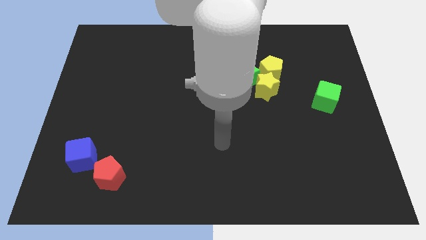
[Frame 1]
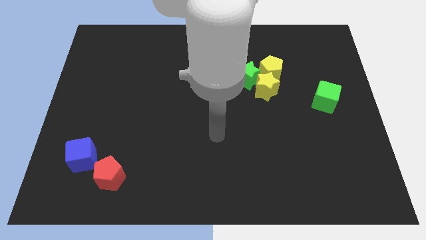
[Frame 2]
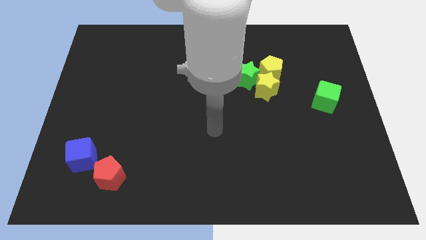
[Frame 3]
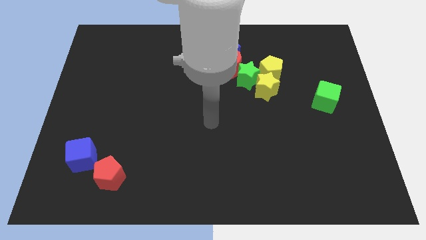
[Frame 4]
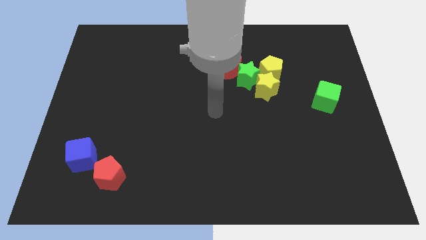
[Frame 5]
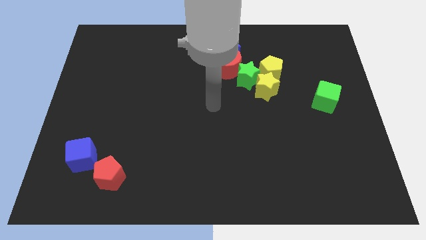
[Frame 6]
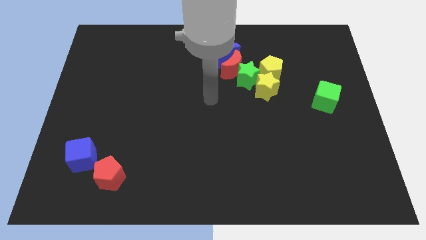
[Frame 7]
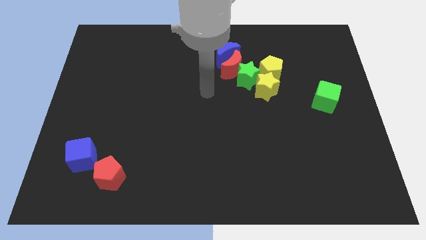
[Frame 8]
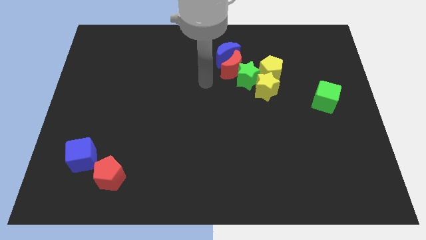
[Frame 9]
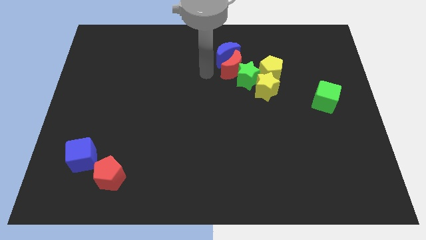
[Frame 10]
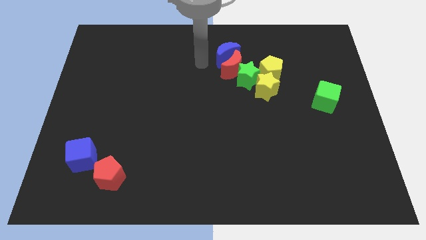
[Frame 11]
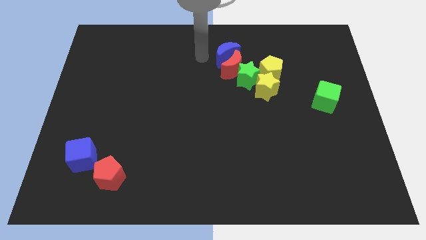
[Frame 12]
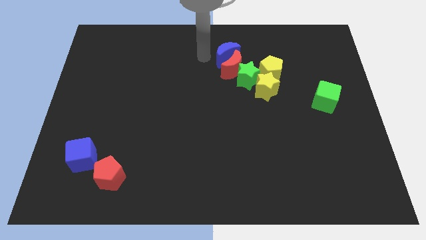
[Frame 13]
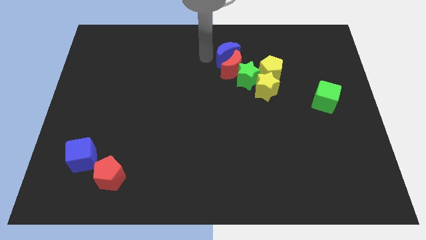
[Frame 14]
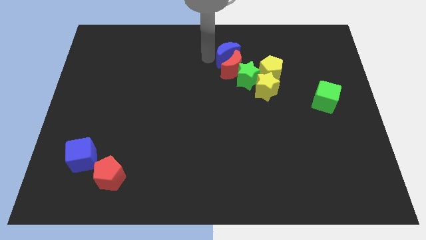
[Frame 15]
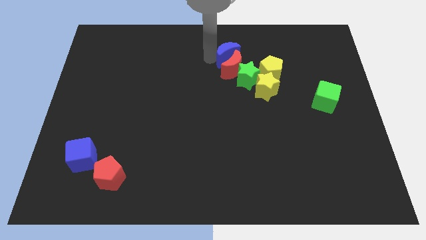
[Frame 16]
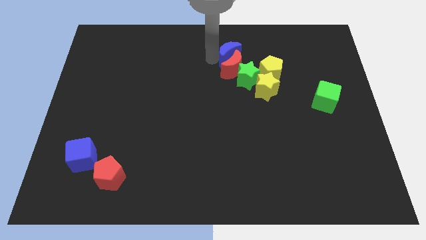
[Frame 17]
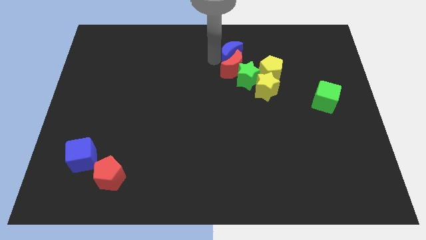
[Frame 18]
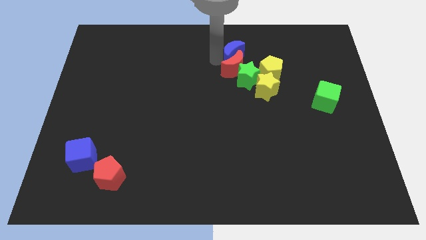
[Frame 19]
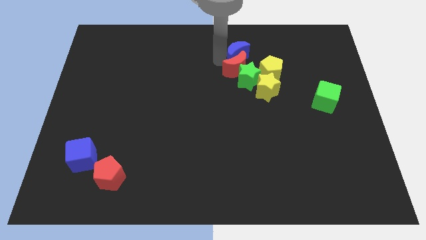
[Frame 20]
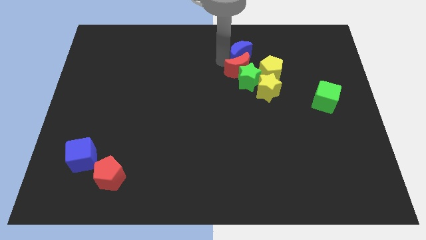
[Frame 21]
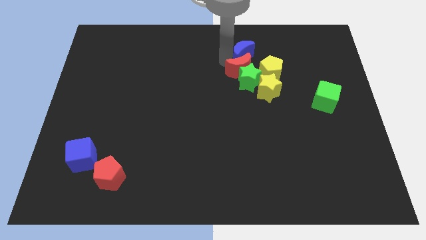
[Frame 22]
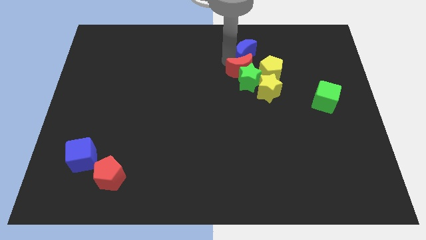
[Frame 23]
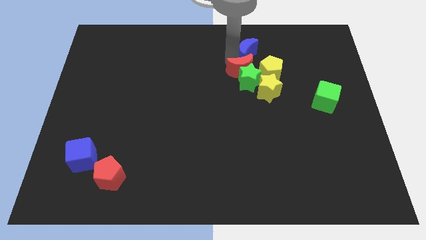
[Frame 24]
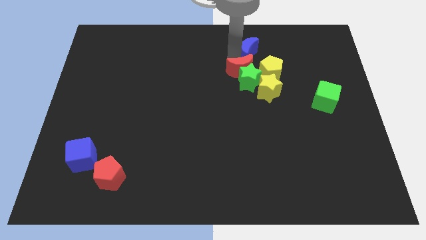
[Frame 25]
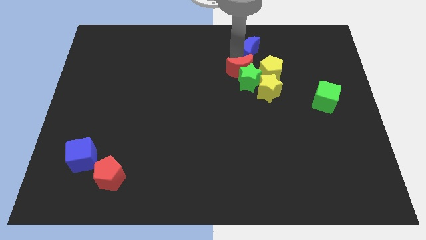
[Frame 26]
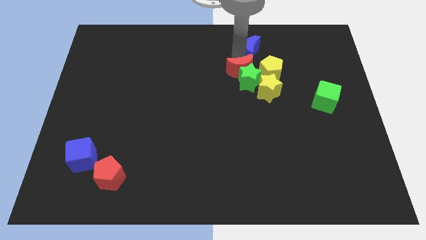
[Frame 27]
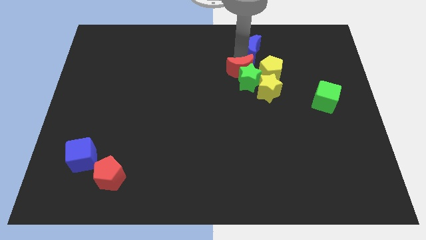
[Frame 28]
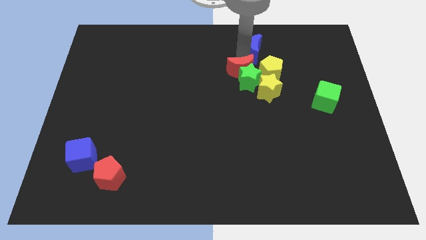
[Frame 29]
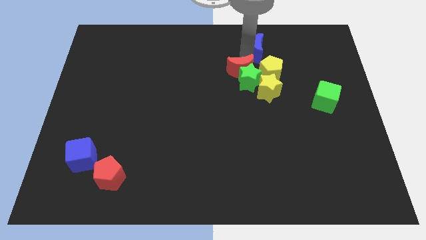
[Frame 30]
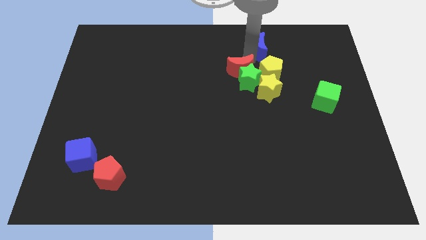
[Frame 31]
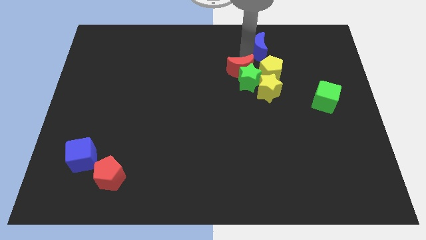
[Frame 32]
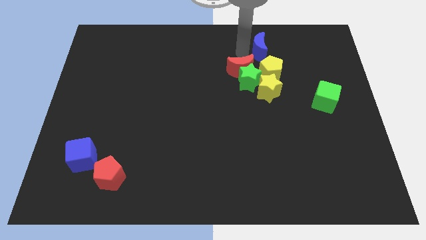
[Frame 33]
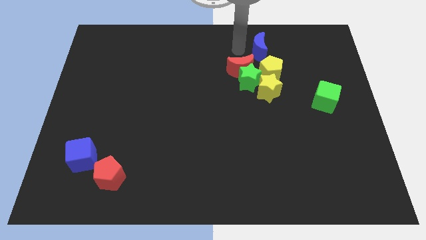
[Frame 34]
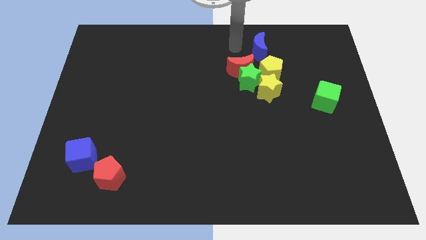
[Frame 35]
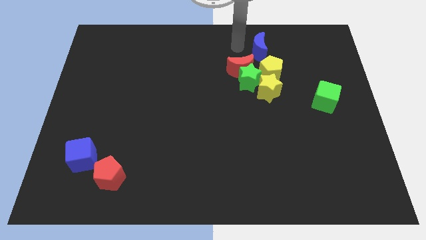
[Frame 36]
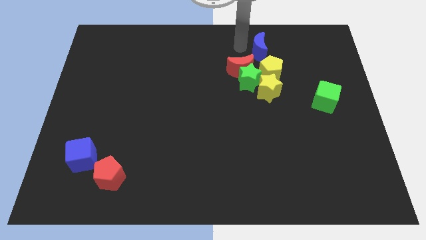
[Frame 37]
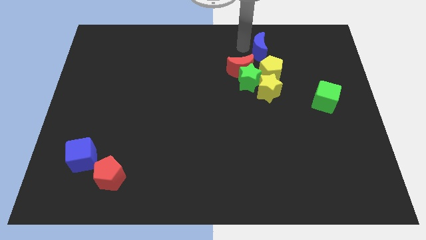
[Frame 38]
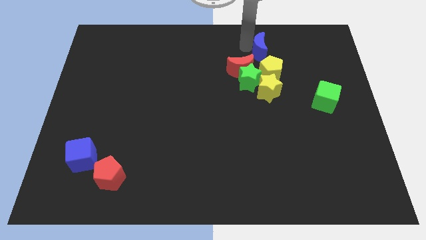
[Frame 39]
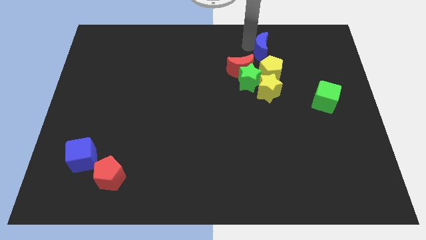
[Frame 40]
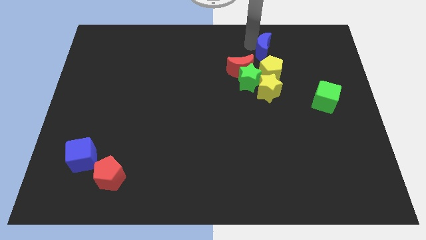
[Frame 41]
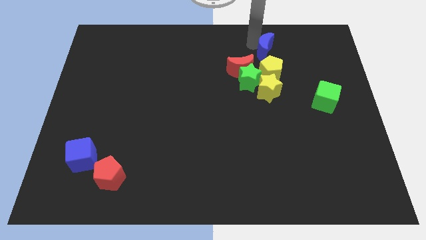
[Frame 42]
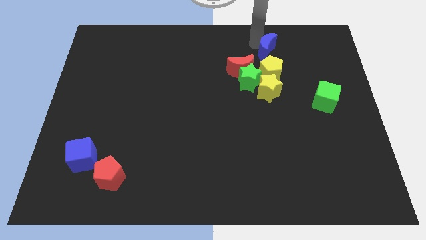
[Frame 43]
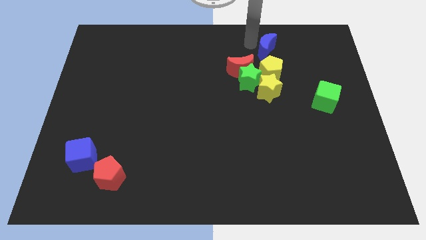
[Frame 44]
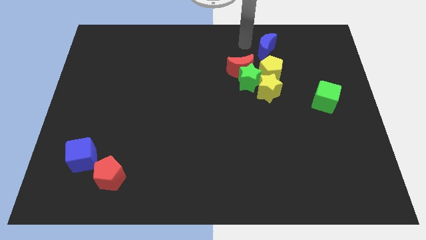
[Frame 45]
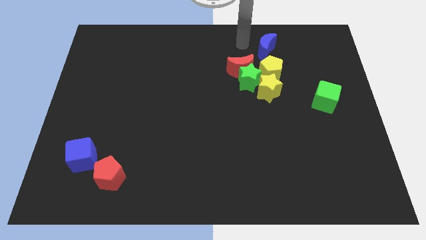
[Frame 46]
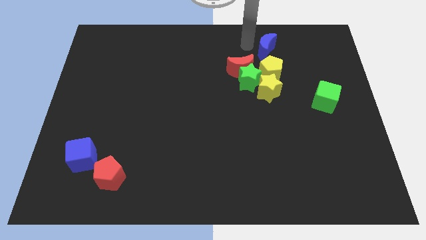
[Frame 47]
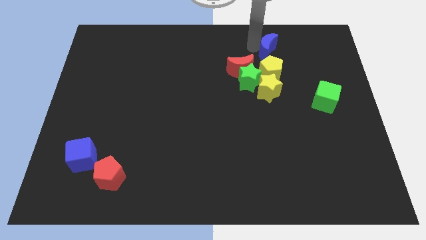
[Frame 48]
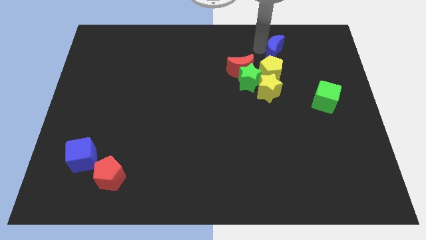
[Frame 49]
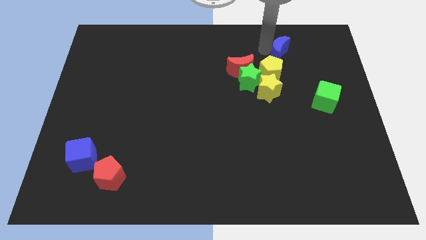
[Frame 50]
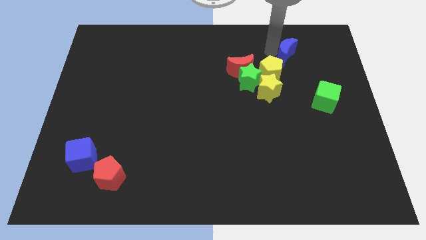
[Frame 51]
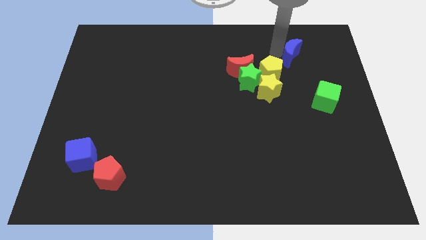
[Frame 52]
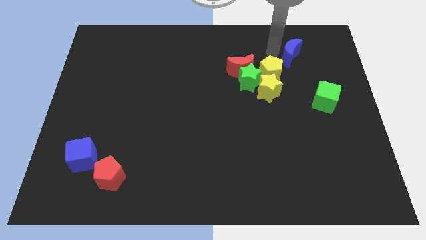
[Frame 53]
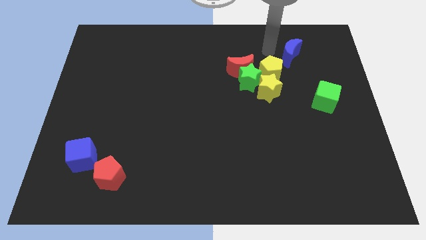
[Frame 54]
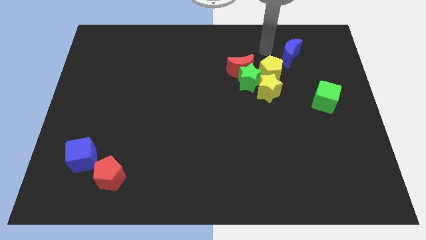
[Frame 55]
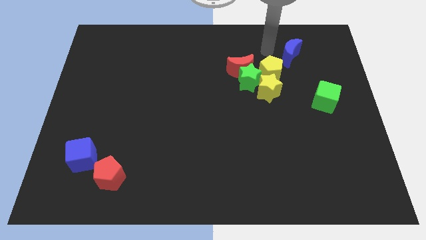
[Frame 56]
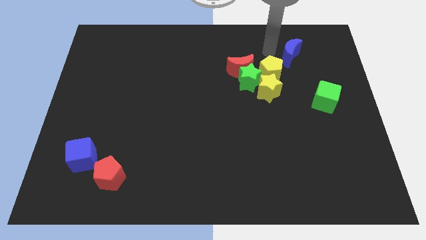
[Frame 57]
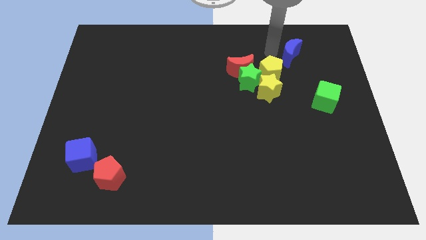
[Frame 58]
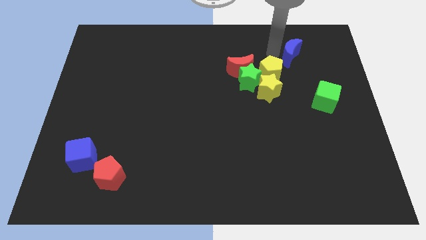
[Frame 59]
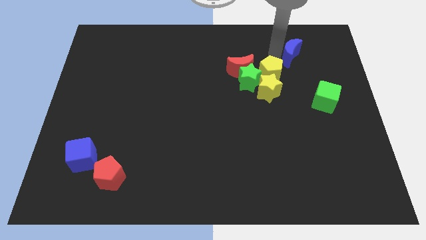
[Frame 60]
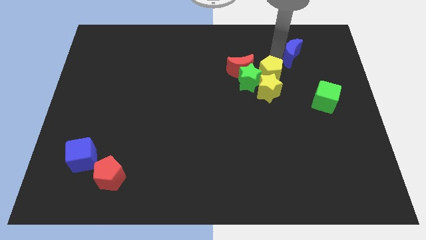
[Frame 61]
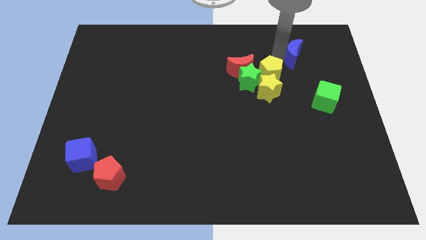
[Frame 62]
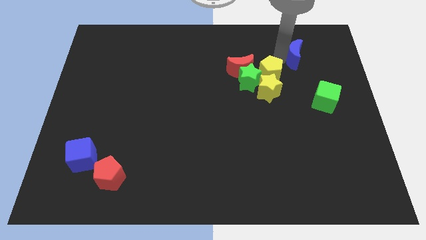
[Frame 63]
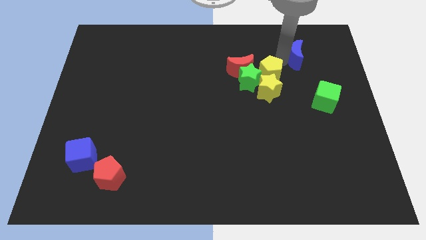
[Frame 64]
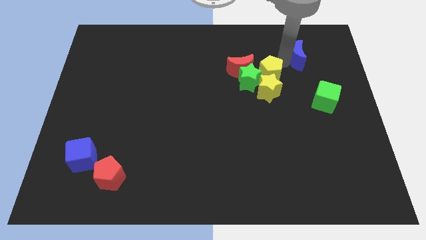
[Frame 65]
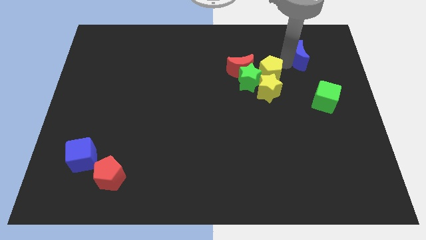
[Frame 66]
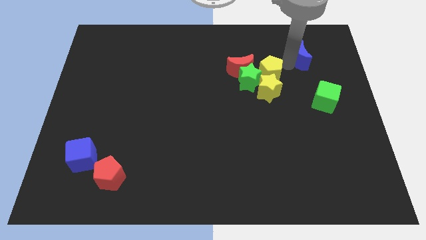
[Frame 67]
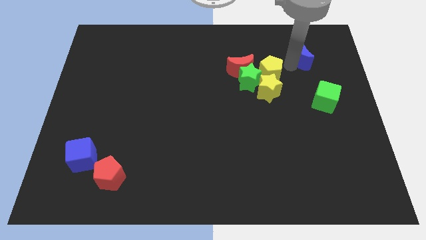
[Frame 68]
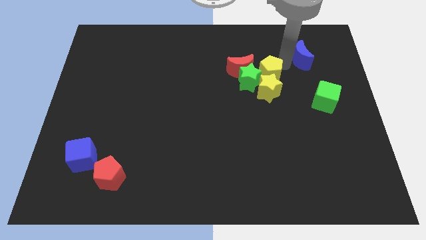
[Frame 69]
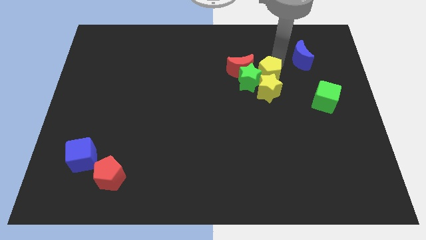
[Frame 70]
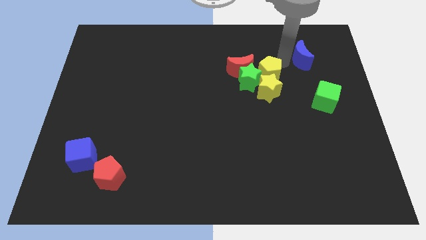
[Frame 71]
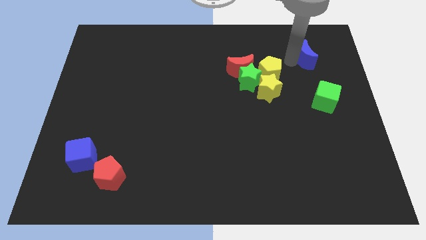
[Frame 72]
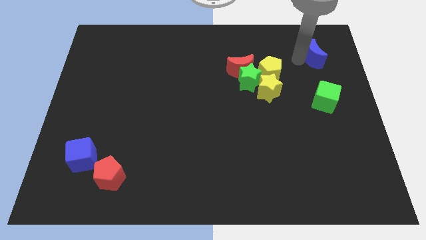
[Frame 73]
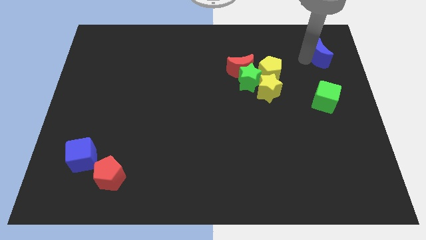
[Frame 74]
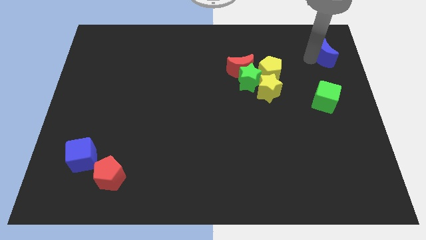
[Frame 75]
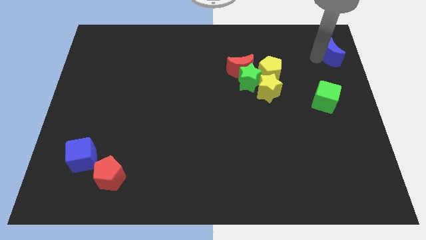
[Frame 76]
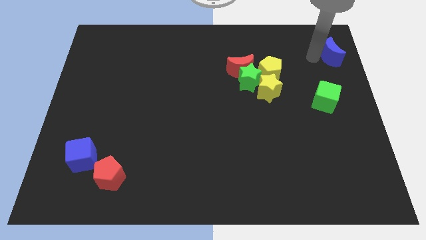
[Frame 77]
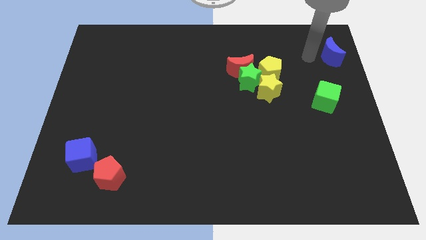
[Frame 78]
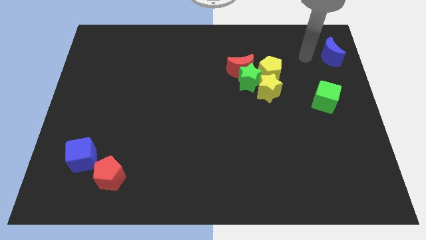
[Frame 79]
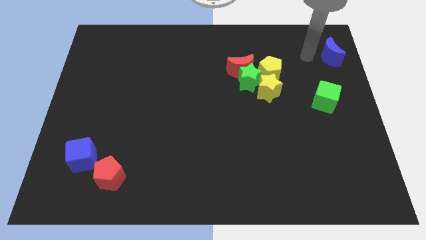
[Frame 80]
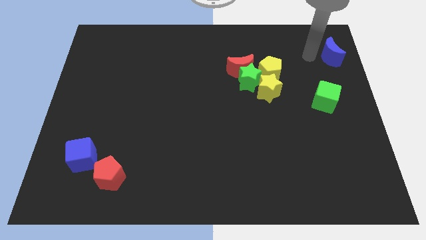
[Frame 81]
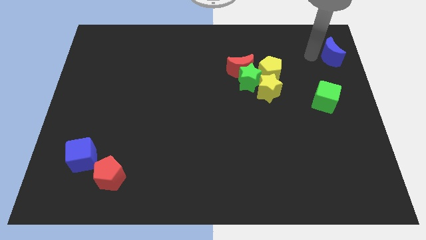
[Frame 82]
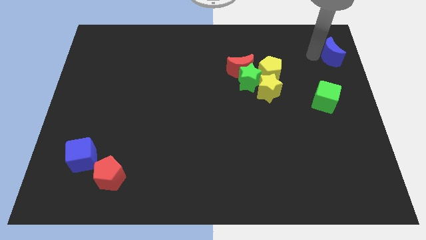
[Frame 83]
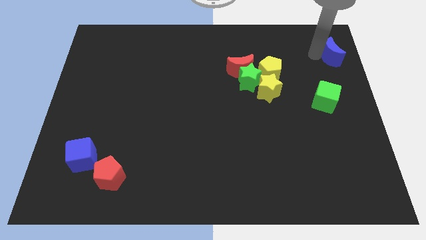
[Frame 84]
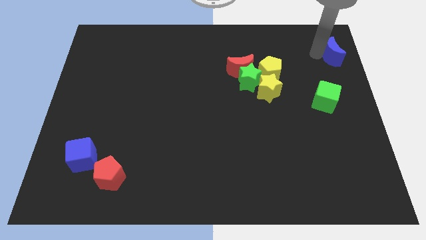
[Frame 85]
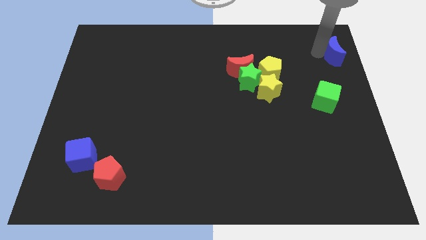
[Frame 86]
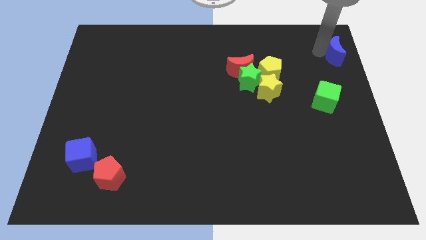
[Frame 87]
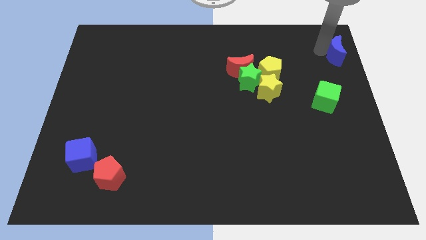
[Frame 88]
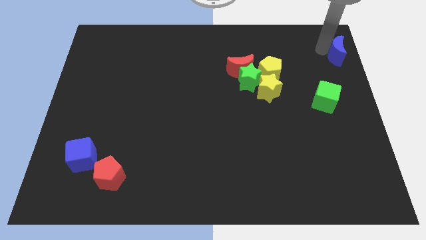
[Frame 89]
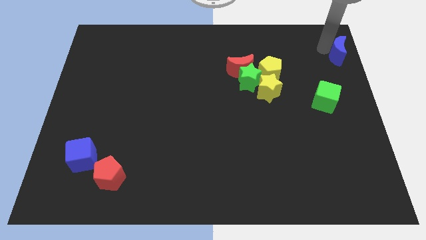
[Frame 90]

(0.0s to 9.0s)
move the blue moon to the top right corner
